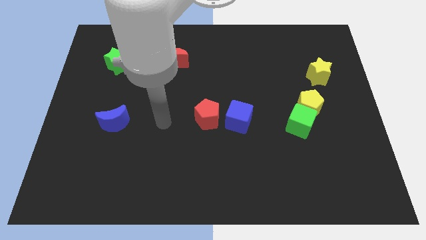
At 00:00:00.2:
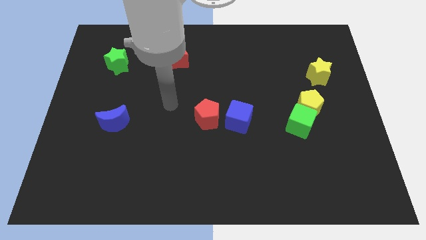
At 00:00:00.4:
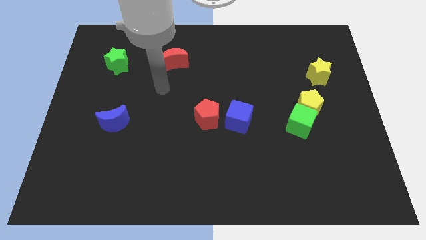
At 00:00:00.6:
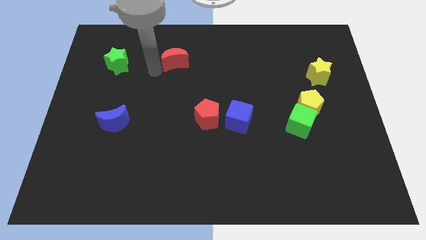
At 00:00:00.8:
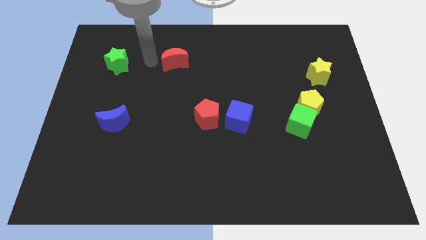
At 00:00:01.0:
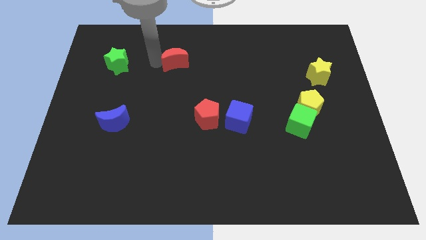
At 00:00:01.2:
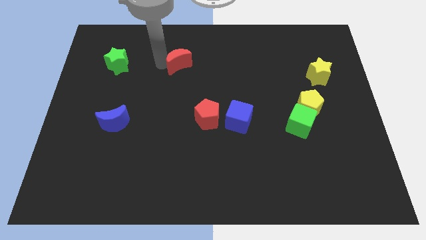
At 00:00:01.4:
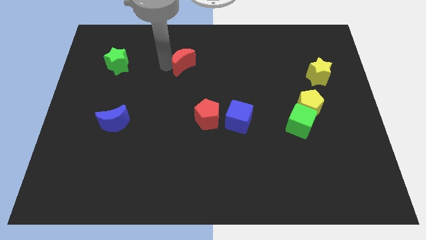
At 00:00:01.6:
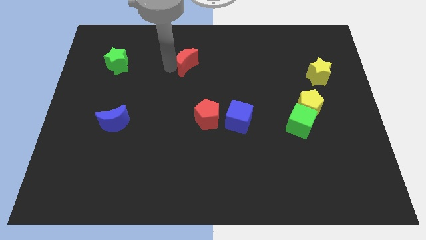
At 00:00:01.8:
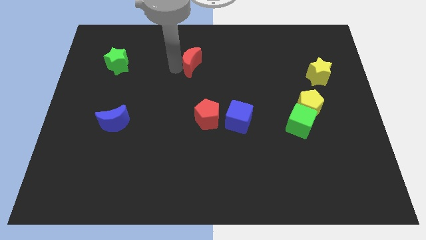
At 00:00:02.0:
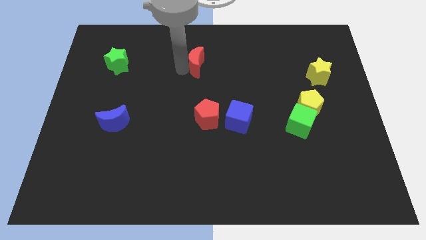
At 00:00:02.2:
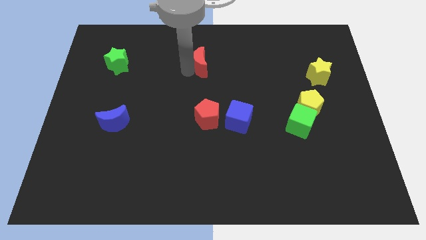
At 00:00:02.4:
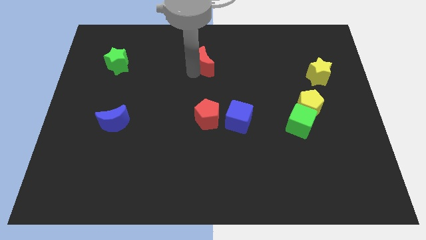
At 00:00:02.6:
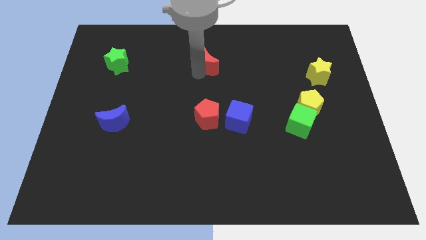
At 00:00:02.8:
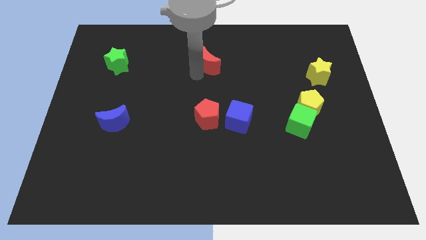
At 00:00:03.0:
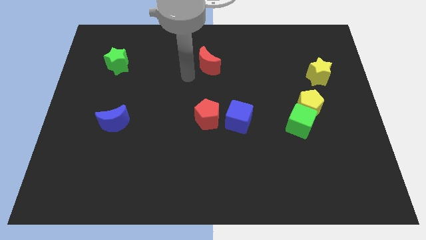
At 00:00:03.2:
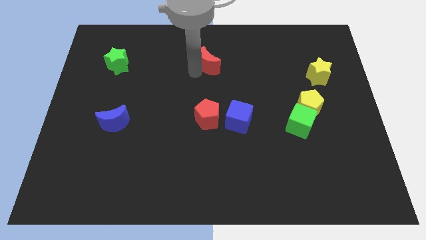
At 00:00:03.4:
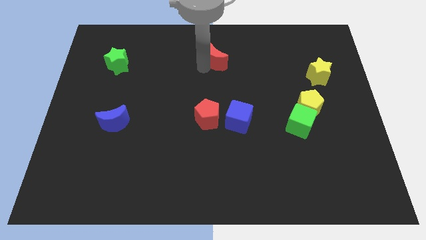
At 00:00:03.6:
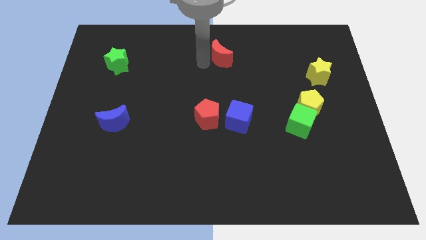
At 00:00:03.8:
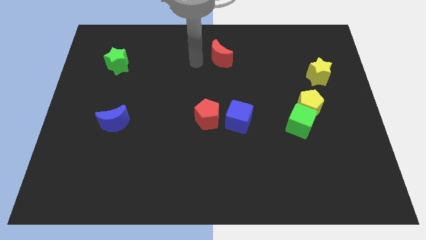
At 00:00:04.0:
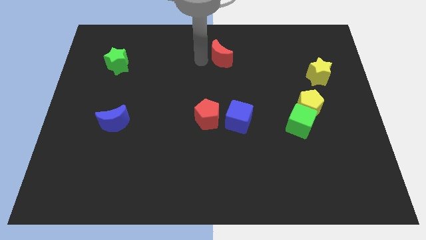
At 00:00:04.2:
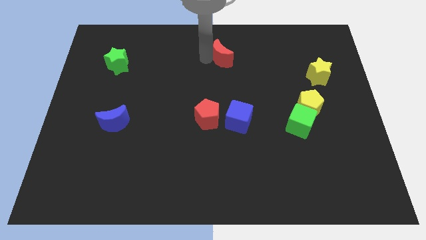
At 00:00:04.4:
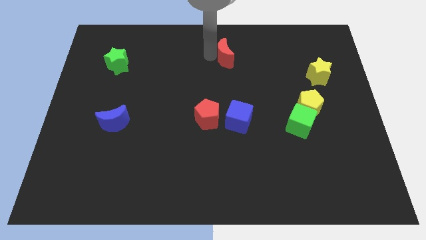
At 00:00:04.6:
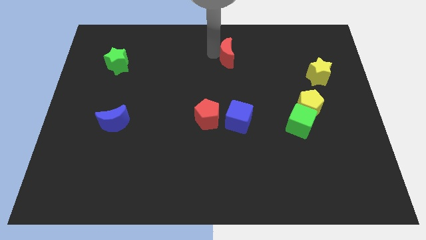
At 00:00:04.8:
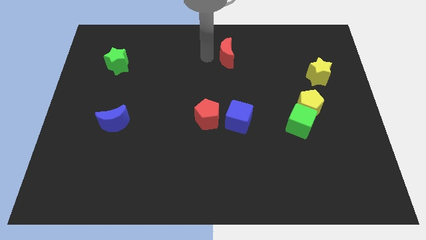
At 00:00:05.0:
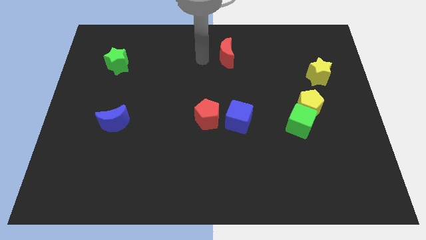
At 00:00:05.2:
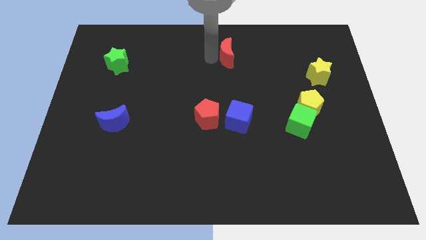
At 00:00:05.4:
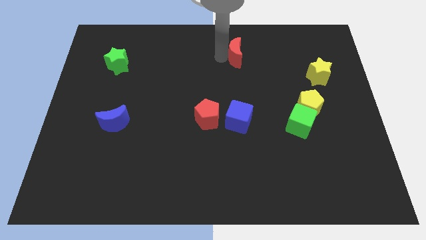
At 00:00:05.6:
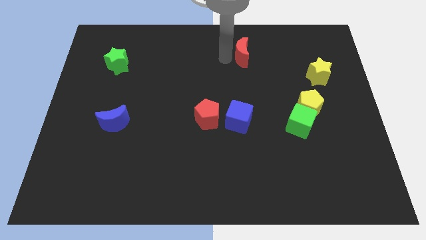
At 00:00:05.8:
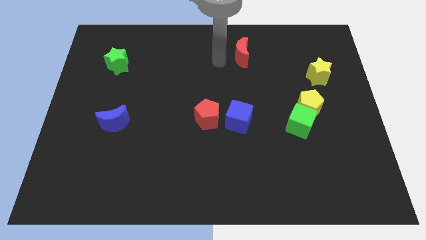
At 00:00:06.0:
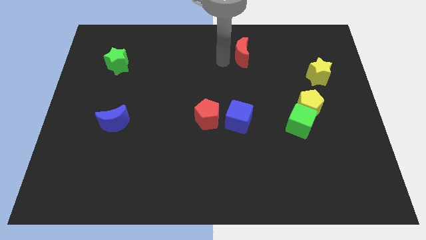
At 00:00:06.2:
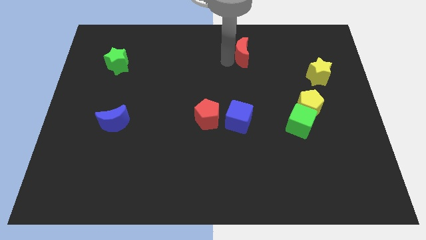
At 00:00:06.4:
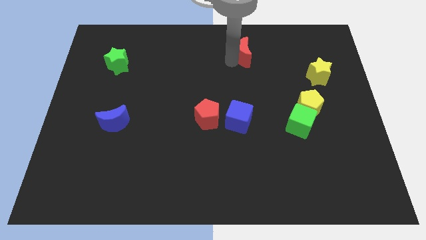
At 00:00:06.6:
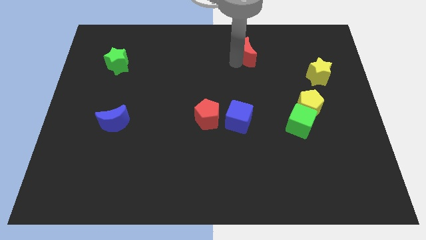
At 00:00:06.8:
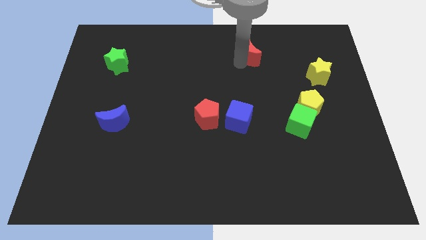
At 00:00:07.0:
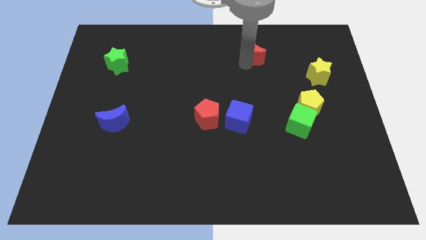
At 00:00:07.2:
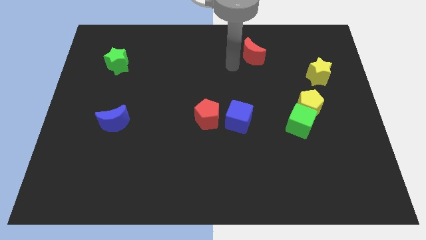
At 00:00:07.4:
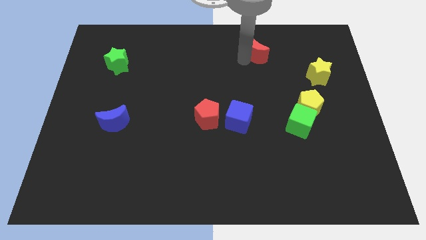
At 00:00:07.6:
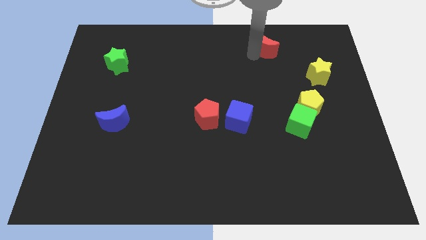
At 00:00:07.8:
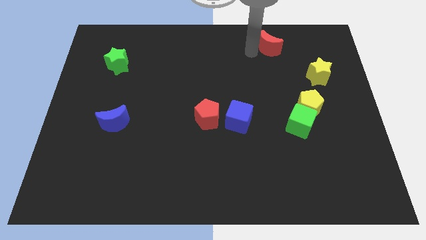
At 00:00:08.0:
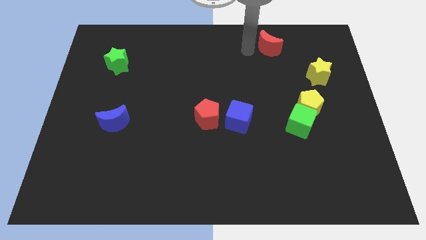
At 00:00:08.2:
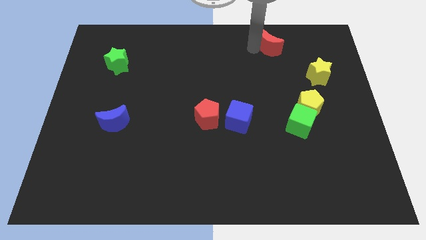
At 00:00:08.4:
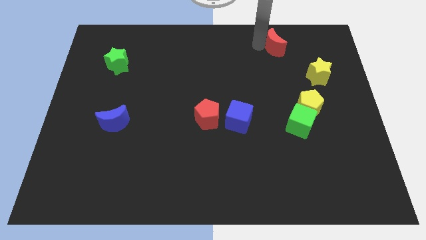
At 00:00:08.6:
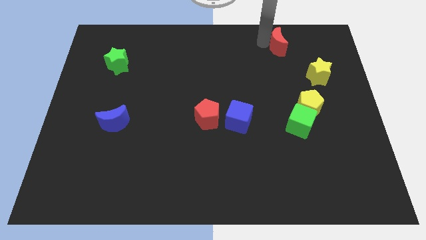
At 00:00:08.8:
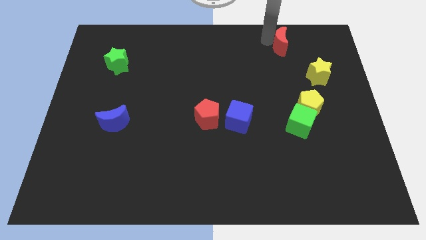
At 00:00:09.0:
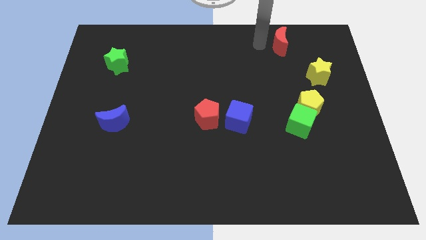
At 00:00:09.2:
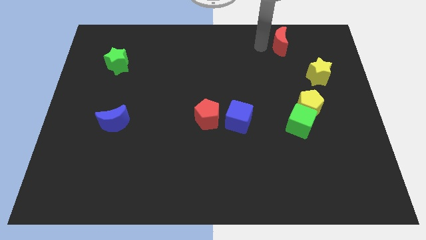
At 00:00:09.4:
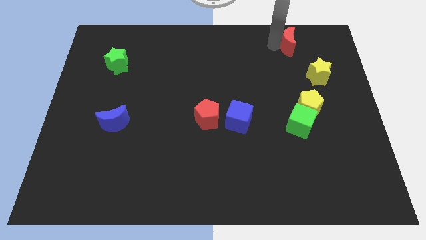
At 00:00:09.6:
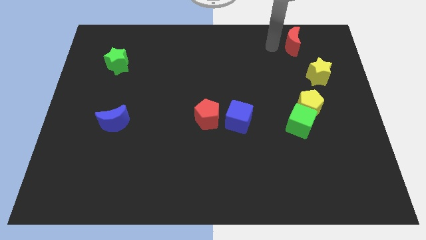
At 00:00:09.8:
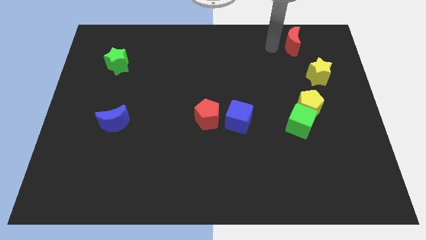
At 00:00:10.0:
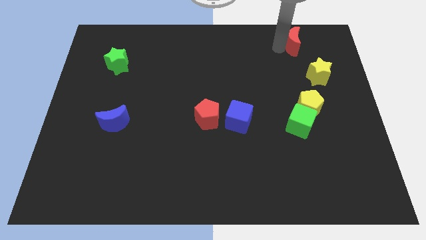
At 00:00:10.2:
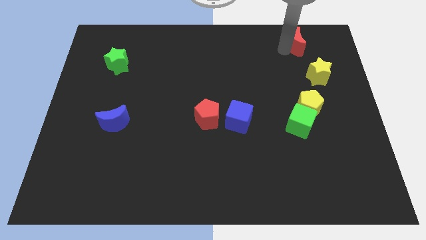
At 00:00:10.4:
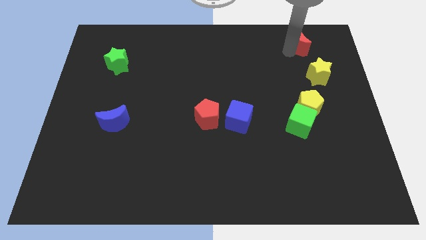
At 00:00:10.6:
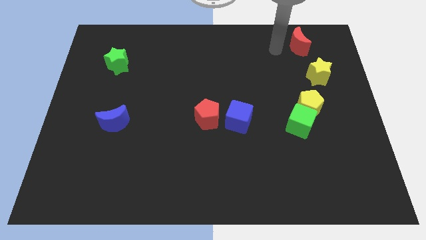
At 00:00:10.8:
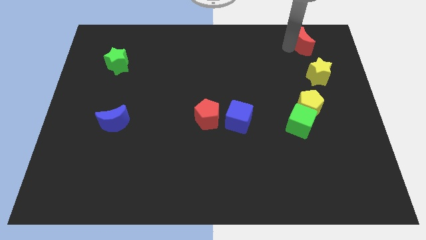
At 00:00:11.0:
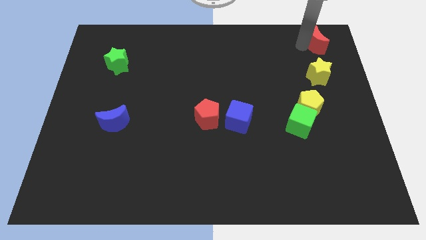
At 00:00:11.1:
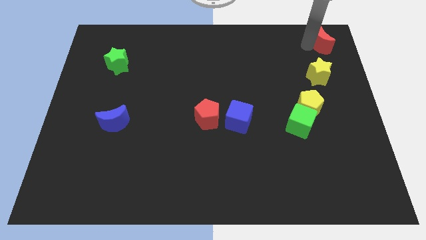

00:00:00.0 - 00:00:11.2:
put the red moon to the upper right corner
